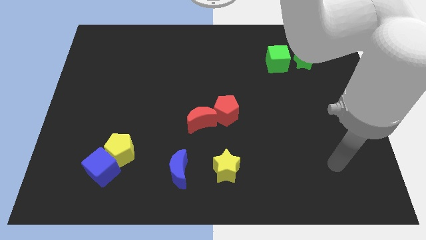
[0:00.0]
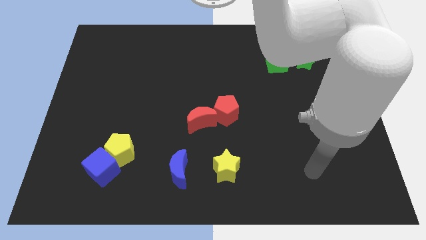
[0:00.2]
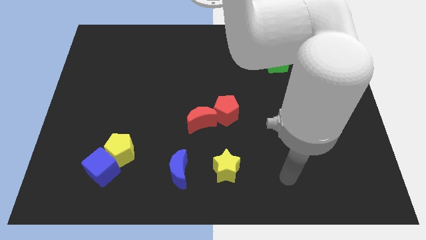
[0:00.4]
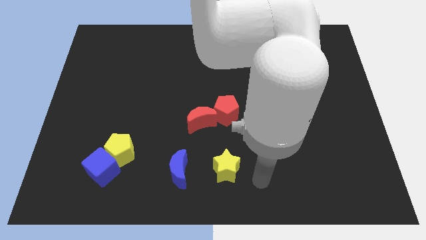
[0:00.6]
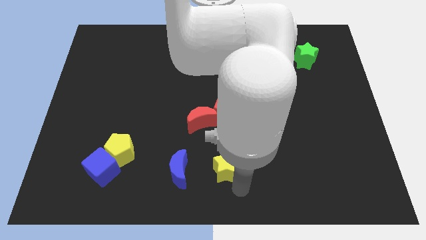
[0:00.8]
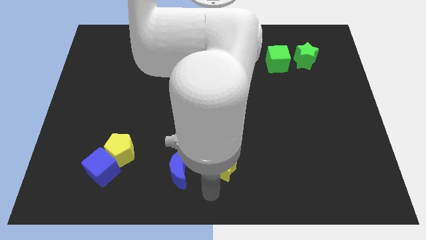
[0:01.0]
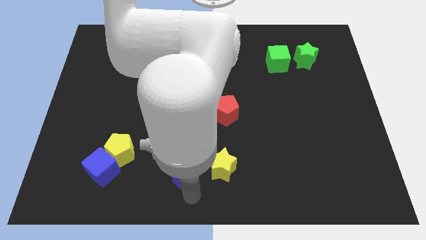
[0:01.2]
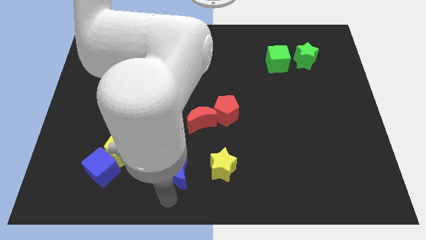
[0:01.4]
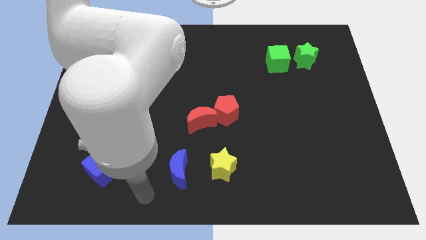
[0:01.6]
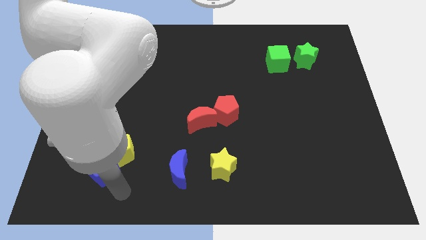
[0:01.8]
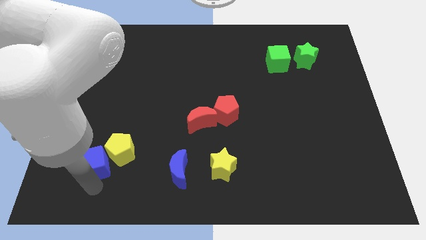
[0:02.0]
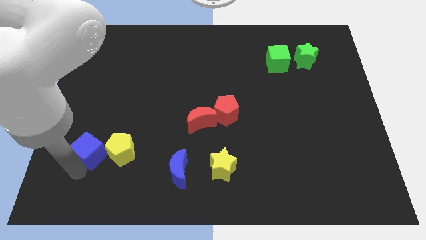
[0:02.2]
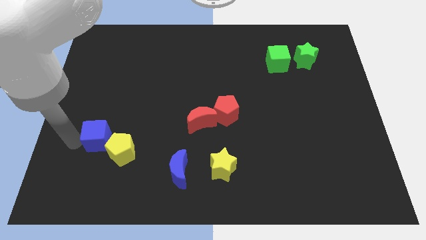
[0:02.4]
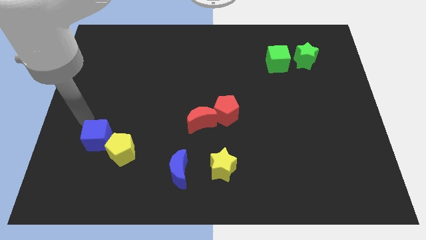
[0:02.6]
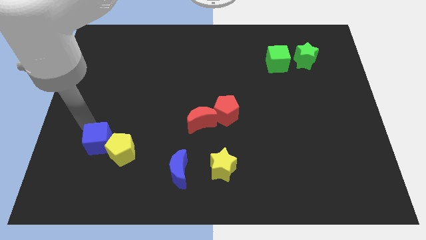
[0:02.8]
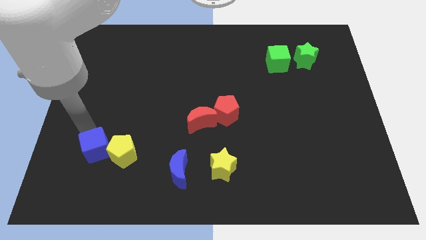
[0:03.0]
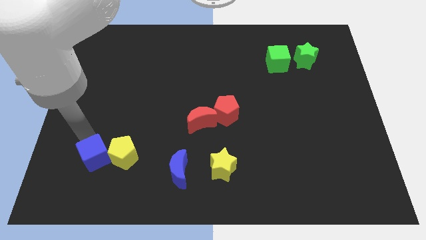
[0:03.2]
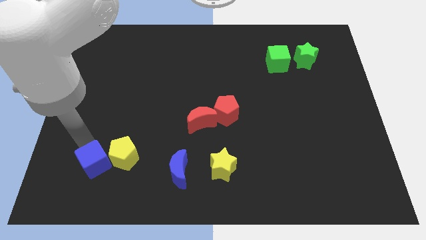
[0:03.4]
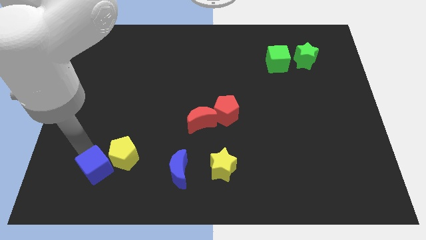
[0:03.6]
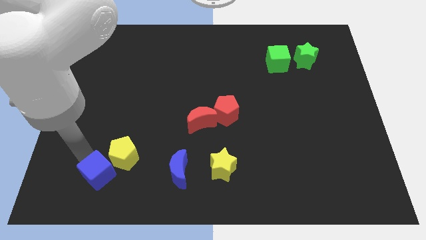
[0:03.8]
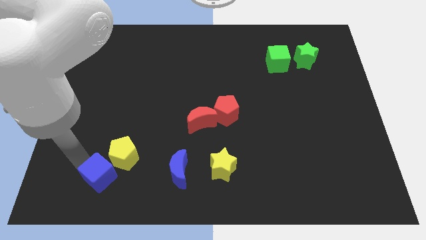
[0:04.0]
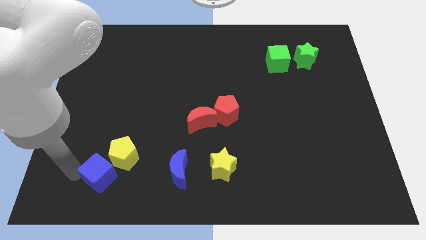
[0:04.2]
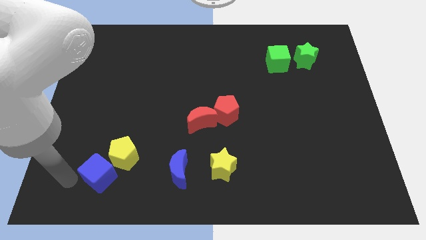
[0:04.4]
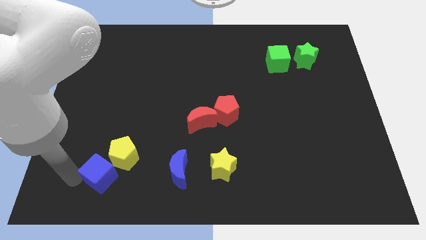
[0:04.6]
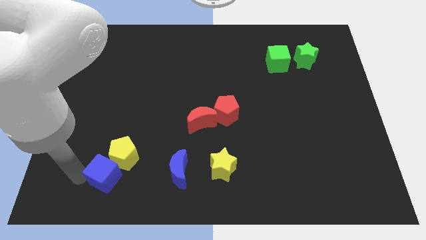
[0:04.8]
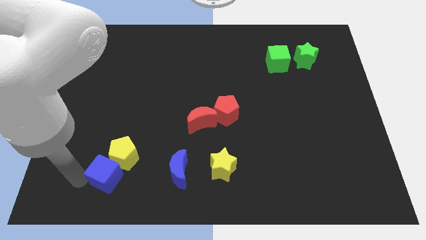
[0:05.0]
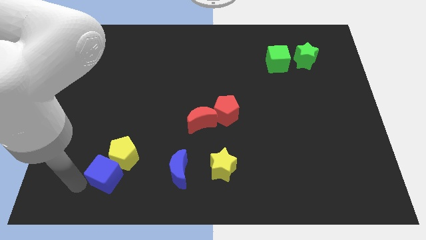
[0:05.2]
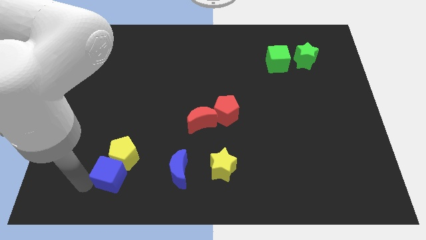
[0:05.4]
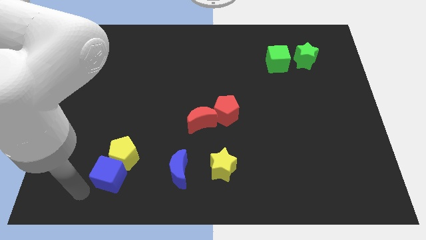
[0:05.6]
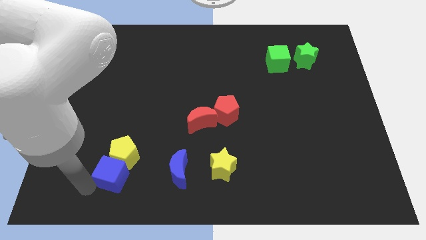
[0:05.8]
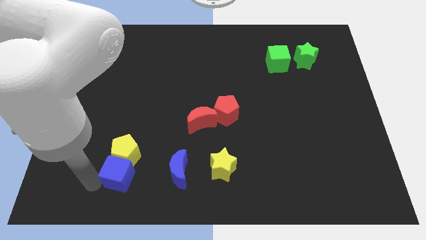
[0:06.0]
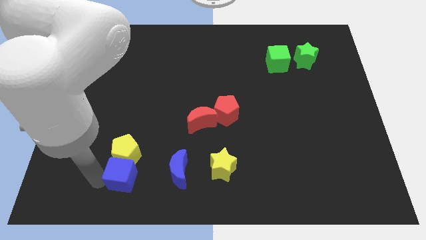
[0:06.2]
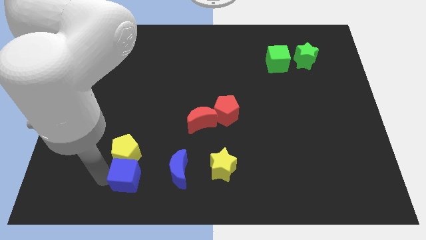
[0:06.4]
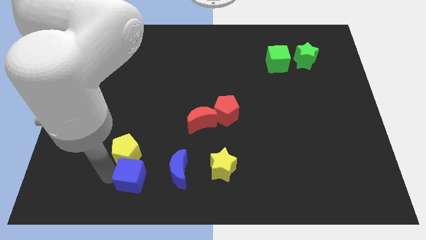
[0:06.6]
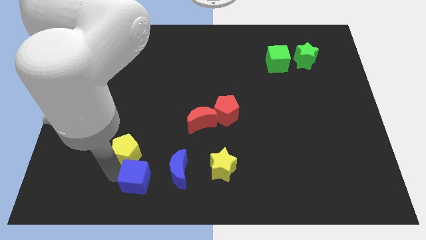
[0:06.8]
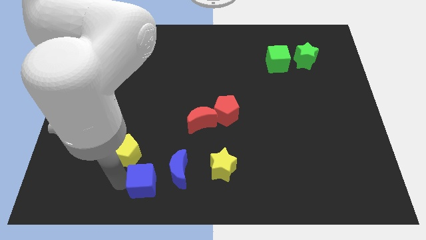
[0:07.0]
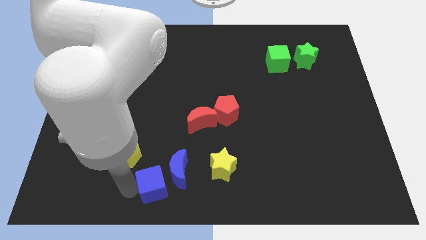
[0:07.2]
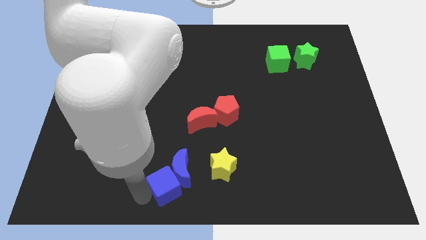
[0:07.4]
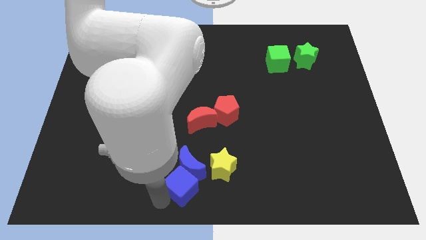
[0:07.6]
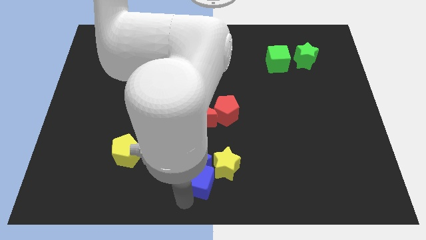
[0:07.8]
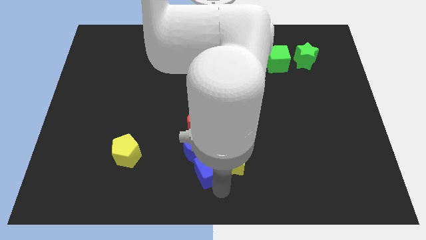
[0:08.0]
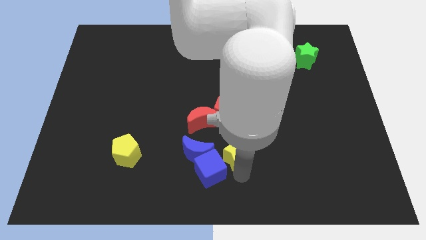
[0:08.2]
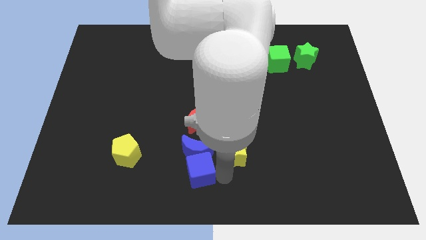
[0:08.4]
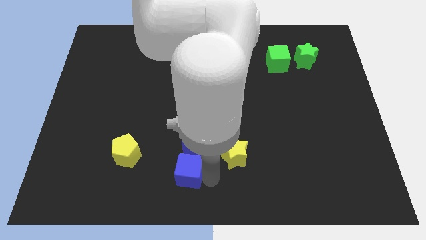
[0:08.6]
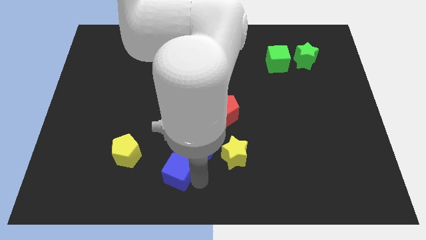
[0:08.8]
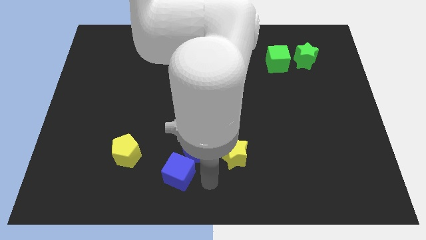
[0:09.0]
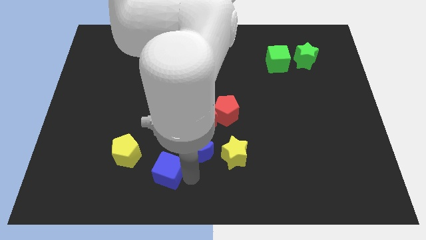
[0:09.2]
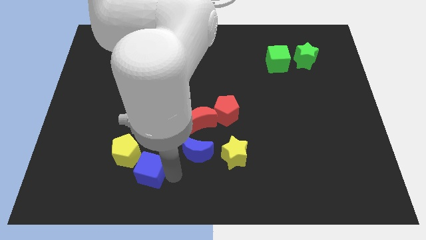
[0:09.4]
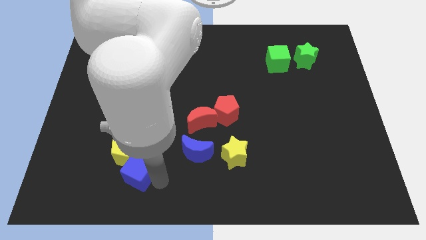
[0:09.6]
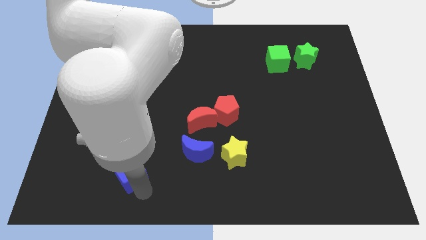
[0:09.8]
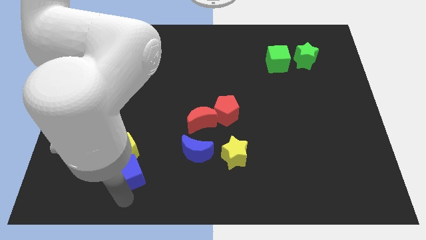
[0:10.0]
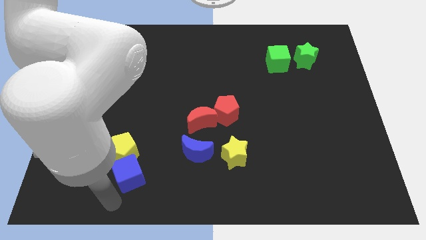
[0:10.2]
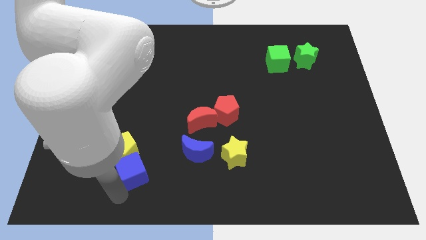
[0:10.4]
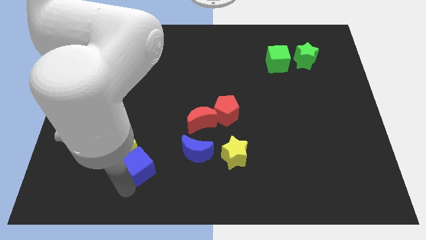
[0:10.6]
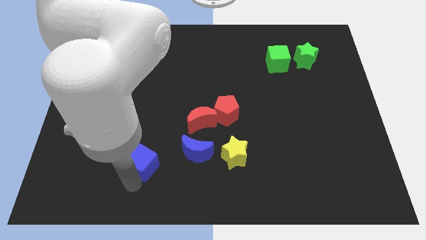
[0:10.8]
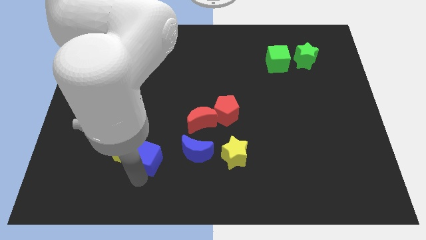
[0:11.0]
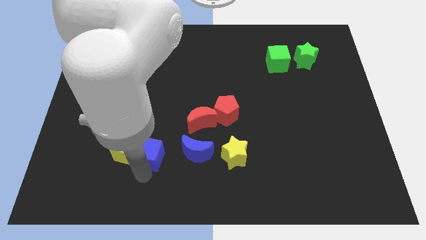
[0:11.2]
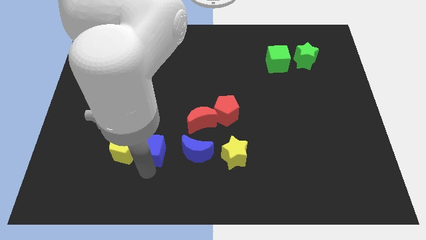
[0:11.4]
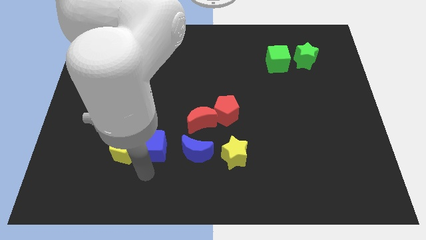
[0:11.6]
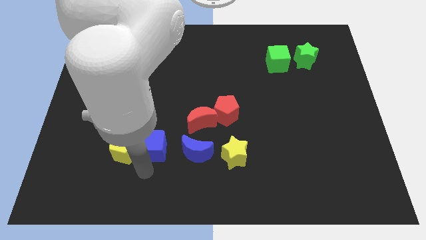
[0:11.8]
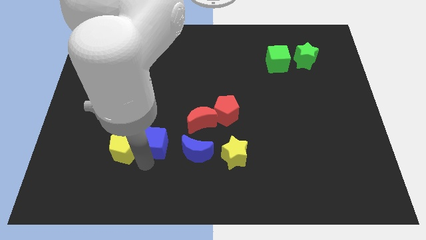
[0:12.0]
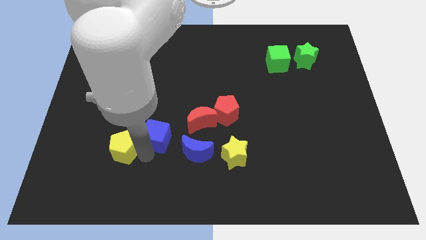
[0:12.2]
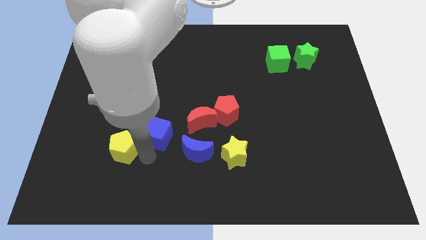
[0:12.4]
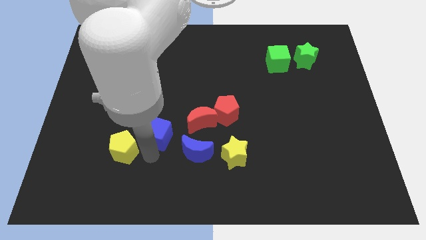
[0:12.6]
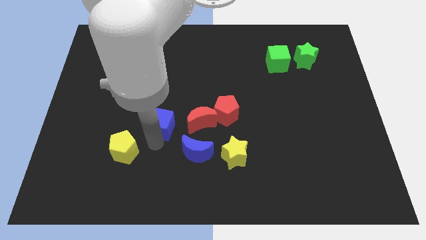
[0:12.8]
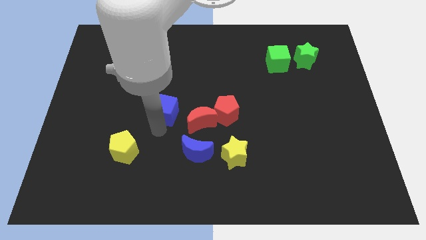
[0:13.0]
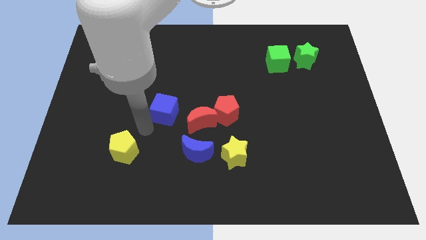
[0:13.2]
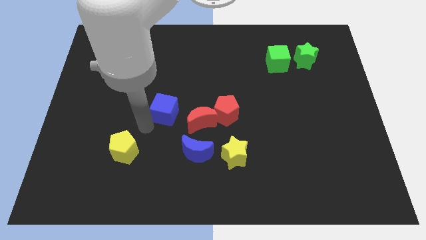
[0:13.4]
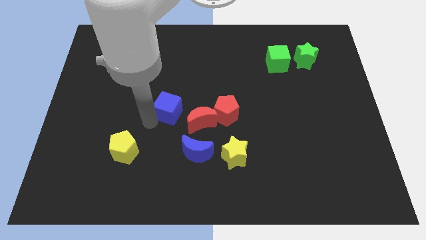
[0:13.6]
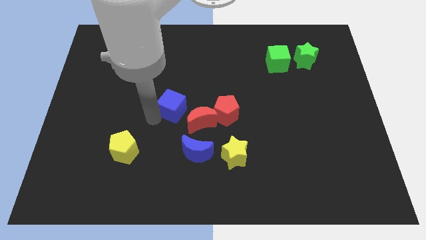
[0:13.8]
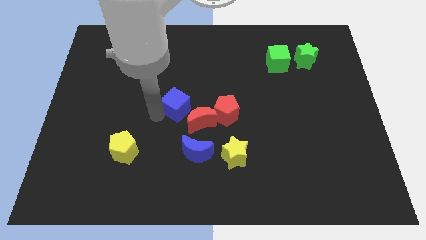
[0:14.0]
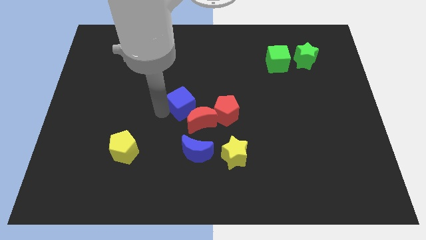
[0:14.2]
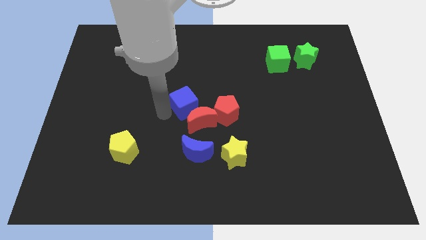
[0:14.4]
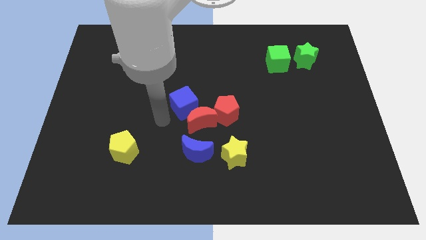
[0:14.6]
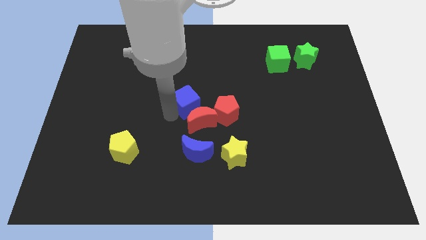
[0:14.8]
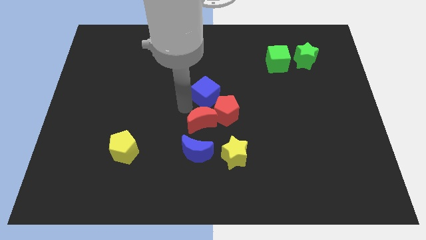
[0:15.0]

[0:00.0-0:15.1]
put the blue cube to the top of the red pentagon
